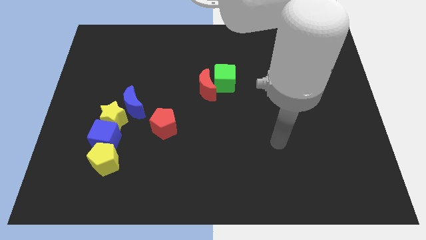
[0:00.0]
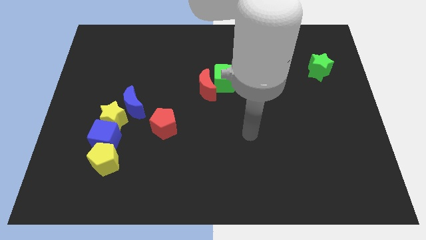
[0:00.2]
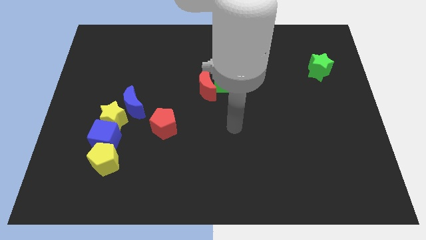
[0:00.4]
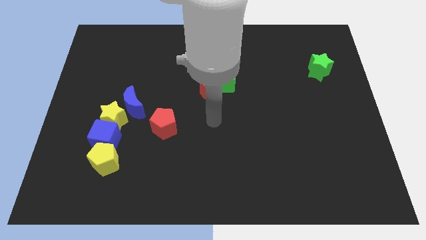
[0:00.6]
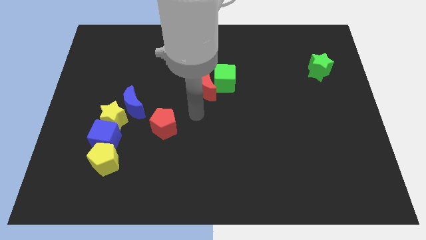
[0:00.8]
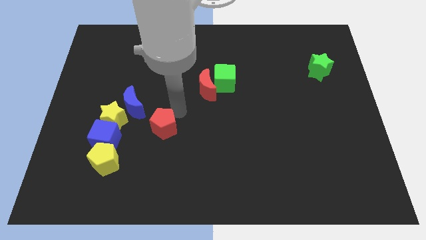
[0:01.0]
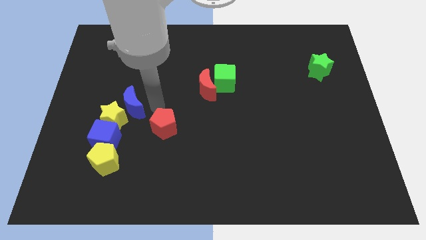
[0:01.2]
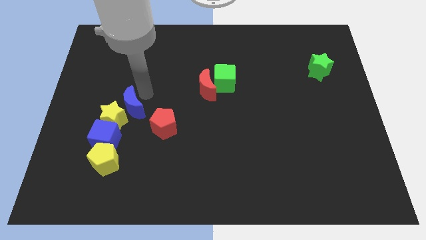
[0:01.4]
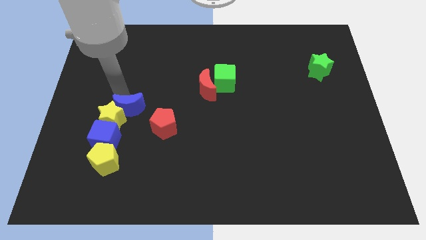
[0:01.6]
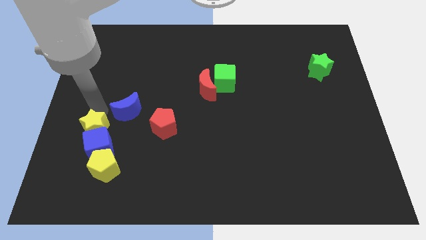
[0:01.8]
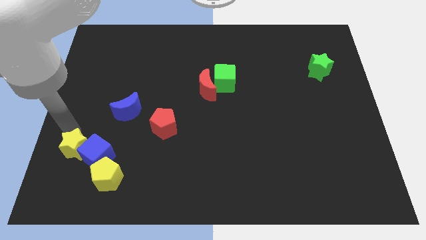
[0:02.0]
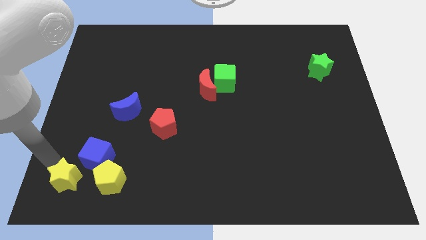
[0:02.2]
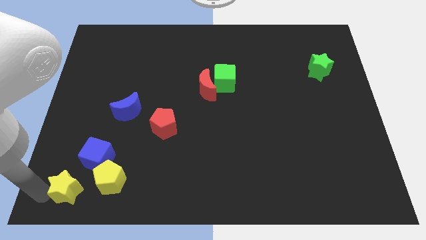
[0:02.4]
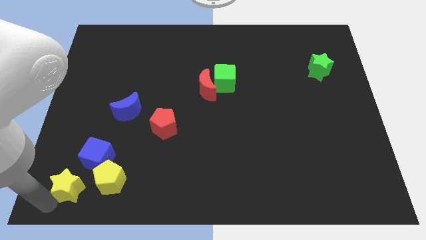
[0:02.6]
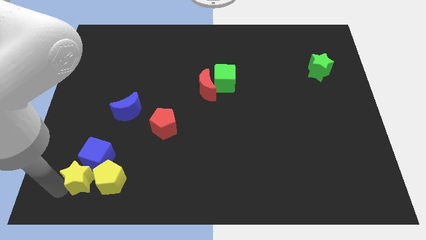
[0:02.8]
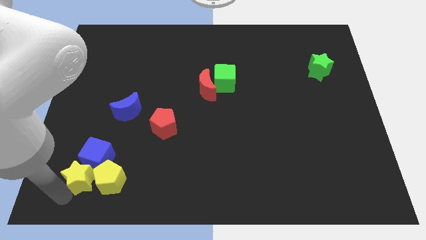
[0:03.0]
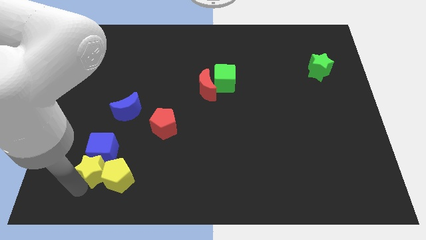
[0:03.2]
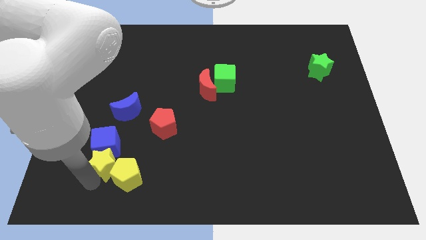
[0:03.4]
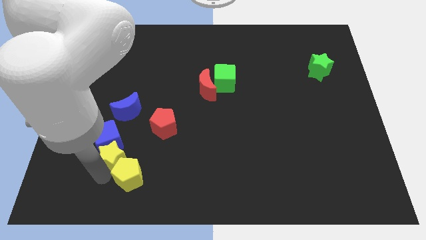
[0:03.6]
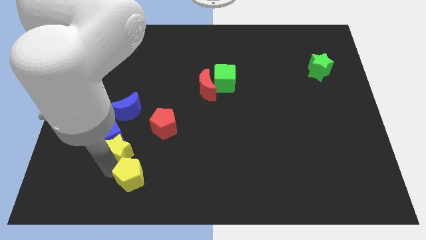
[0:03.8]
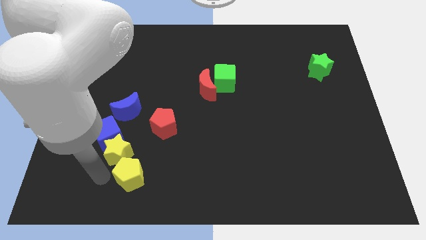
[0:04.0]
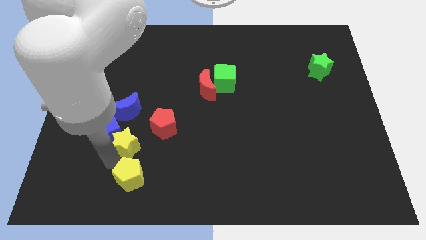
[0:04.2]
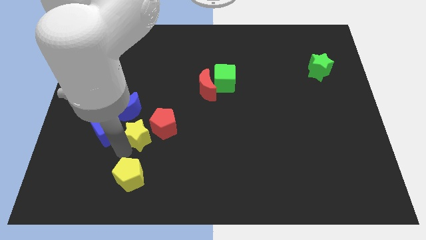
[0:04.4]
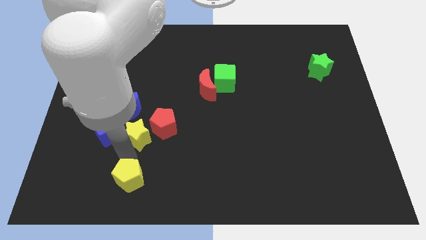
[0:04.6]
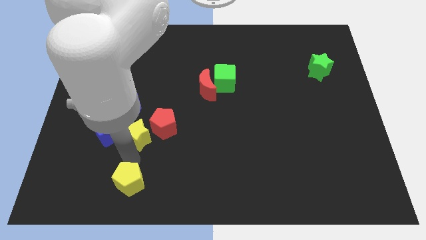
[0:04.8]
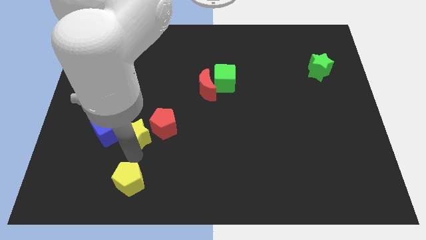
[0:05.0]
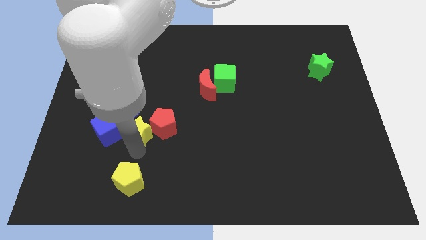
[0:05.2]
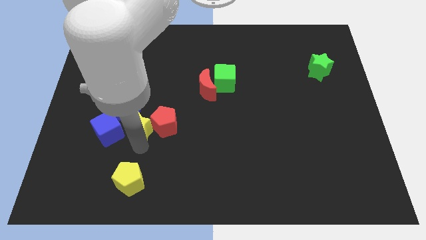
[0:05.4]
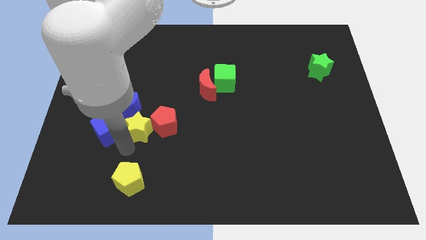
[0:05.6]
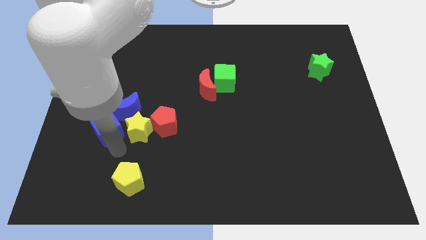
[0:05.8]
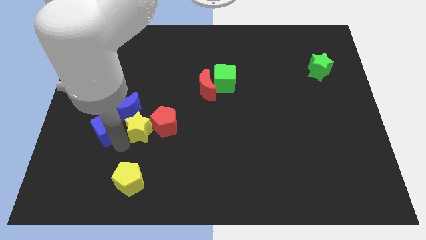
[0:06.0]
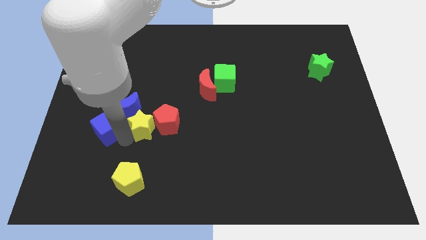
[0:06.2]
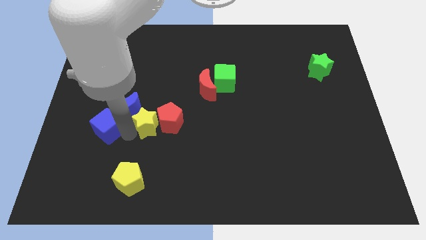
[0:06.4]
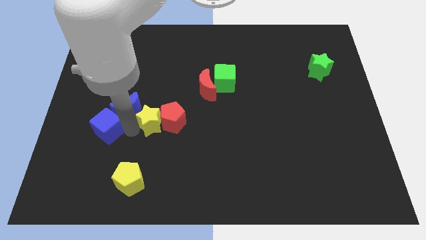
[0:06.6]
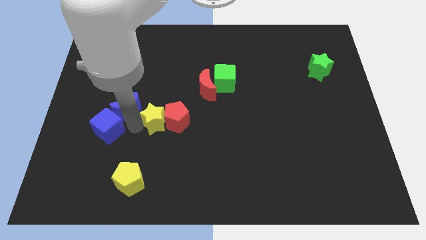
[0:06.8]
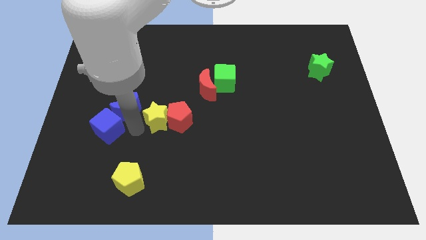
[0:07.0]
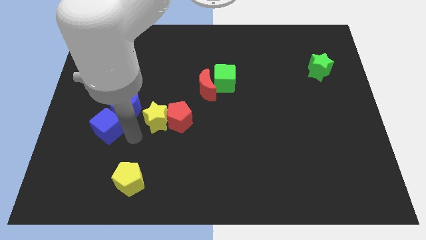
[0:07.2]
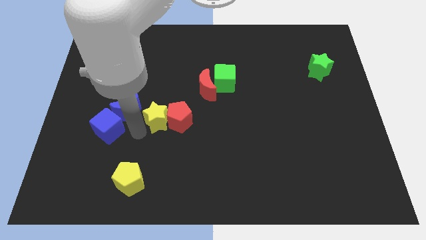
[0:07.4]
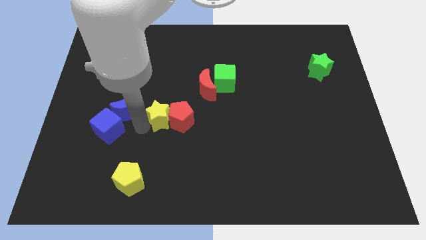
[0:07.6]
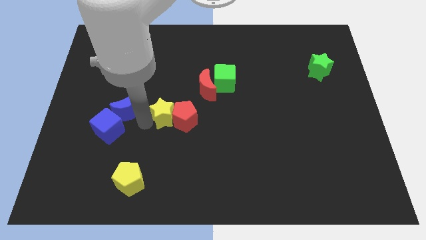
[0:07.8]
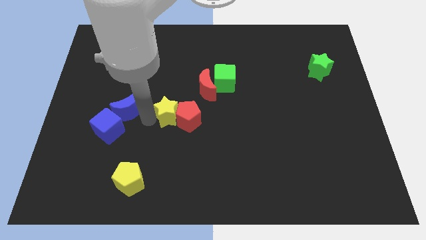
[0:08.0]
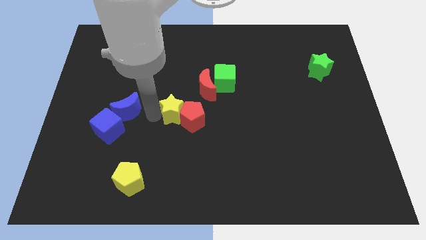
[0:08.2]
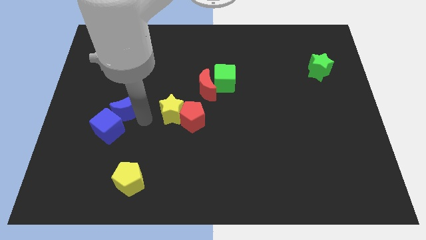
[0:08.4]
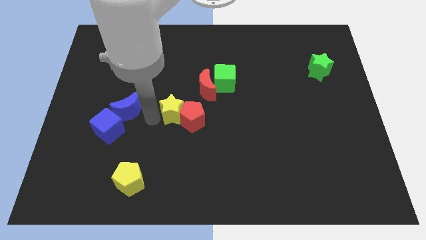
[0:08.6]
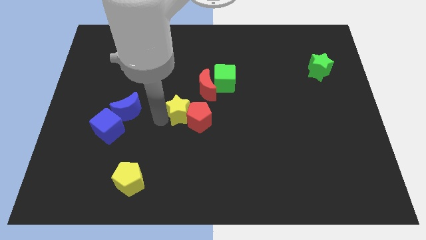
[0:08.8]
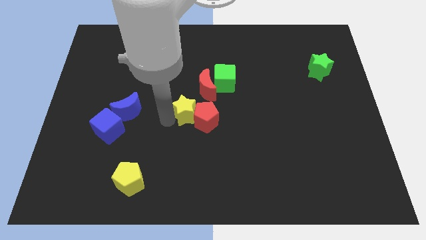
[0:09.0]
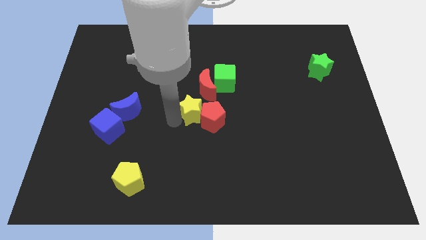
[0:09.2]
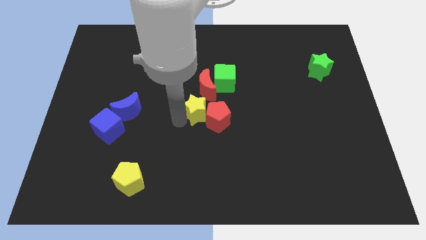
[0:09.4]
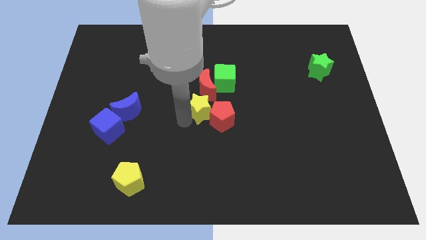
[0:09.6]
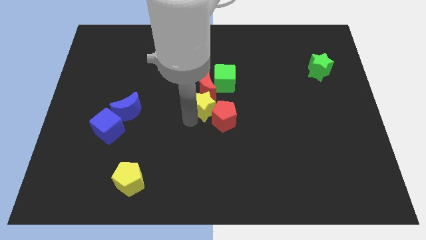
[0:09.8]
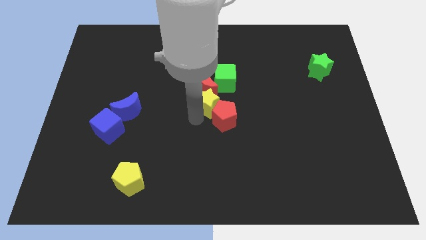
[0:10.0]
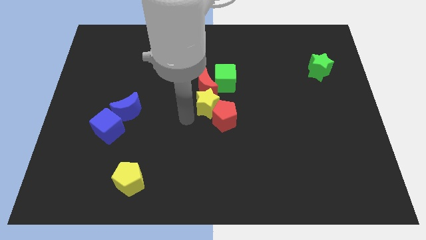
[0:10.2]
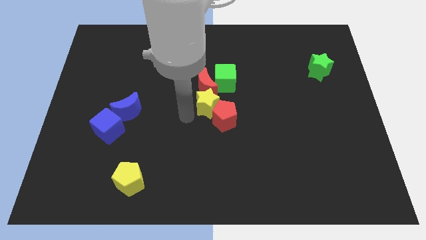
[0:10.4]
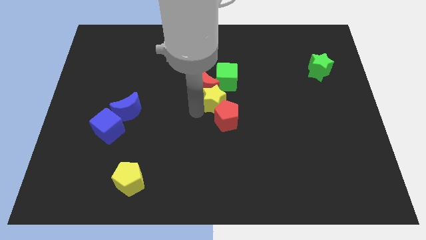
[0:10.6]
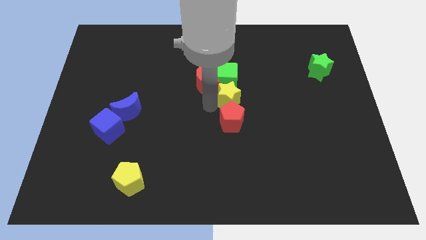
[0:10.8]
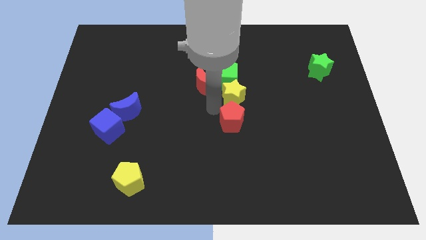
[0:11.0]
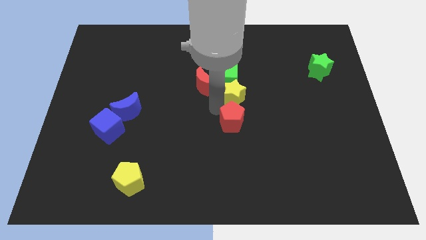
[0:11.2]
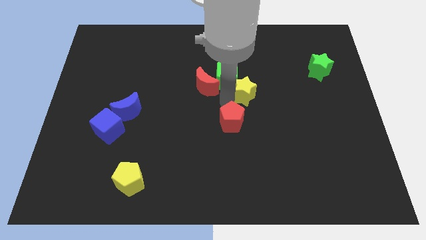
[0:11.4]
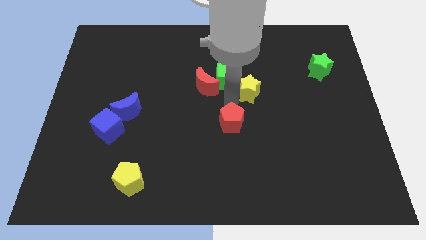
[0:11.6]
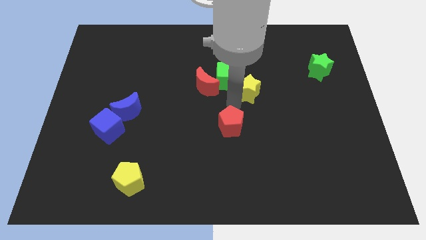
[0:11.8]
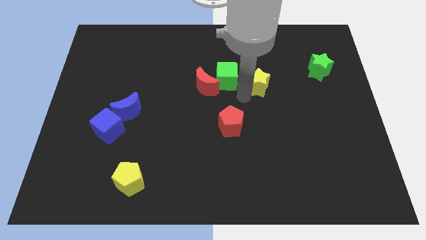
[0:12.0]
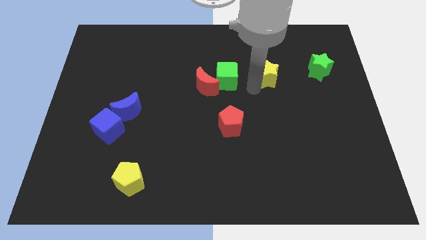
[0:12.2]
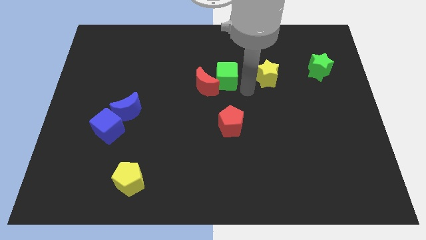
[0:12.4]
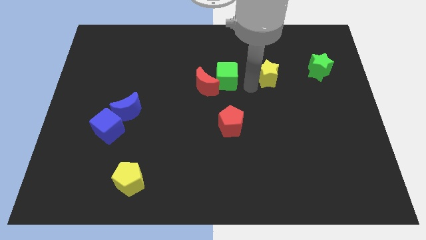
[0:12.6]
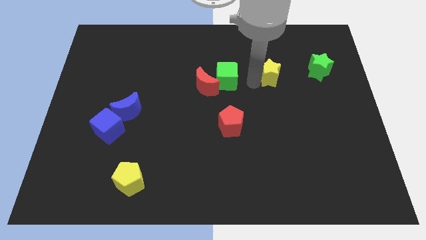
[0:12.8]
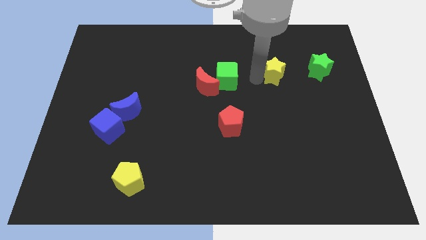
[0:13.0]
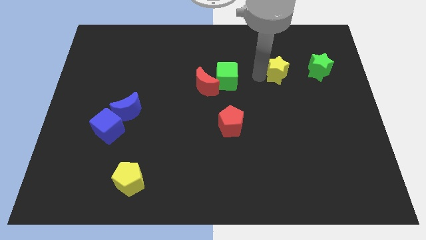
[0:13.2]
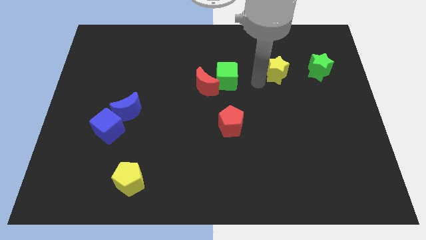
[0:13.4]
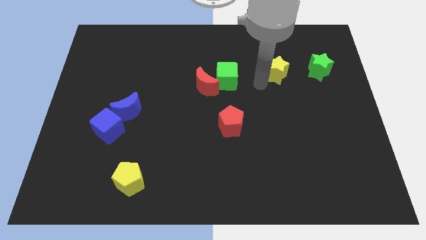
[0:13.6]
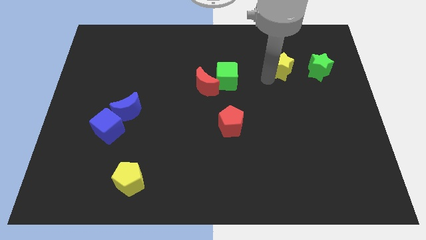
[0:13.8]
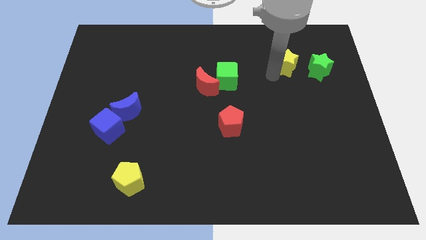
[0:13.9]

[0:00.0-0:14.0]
push the yellow star to the top left of the green star

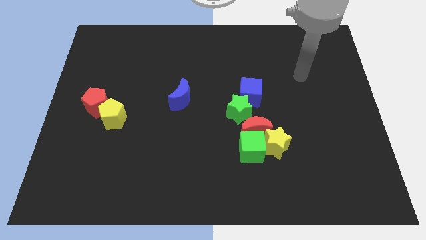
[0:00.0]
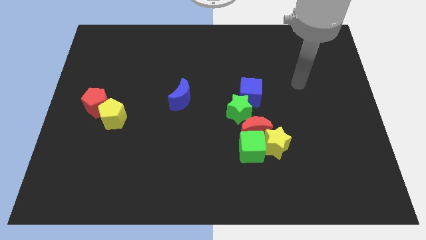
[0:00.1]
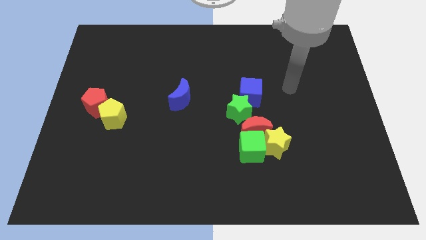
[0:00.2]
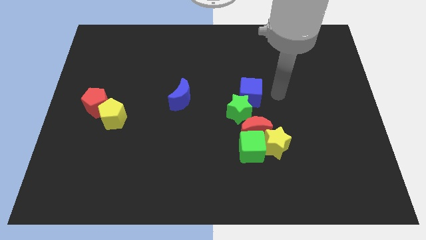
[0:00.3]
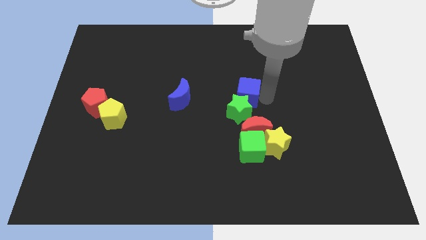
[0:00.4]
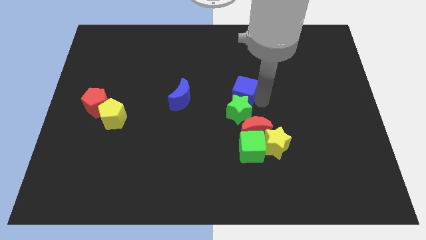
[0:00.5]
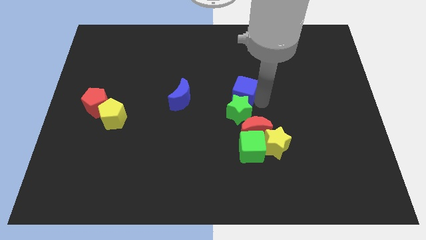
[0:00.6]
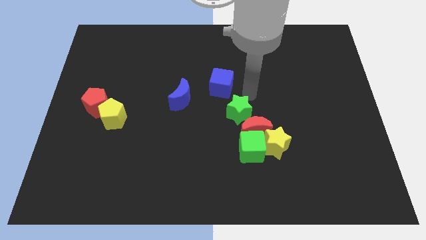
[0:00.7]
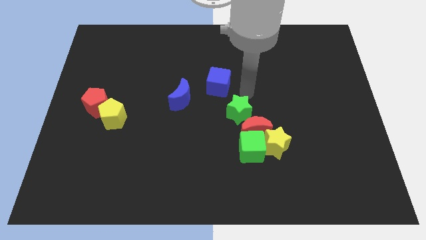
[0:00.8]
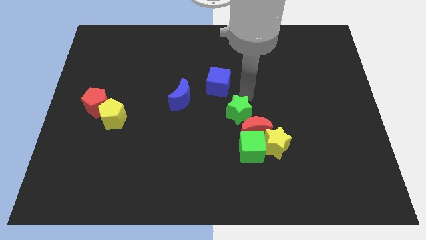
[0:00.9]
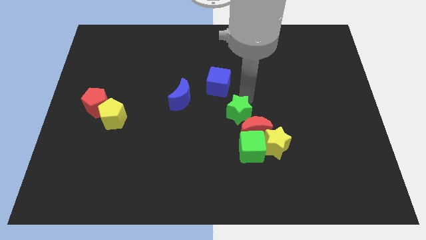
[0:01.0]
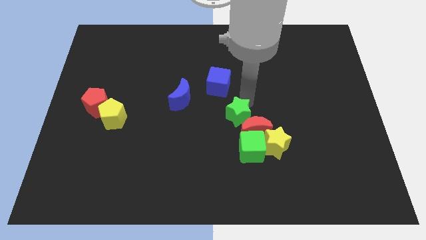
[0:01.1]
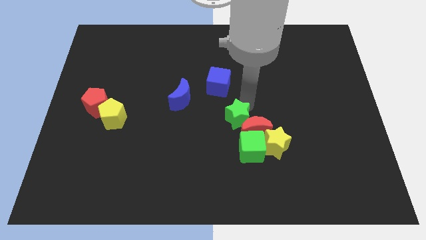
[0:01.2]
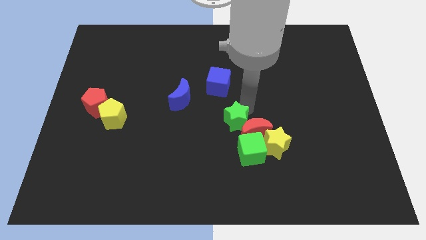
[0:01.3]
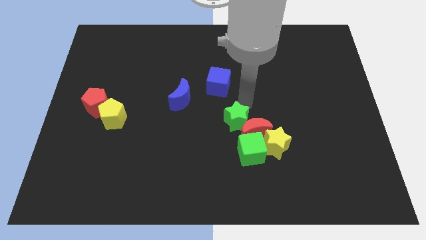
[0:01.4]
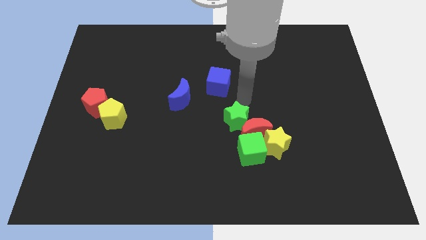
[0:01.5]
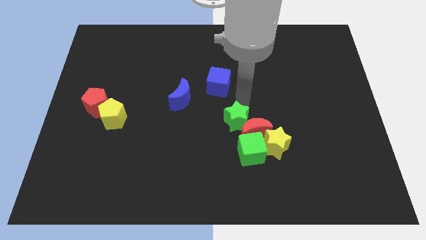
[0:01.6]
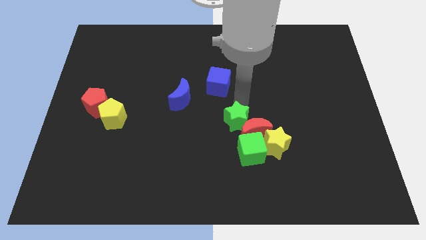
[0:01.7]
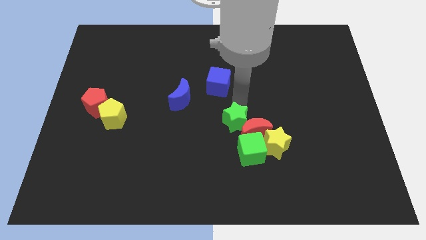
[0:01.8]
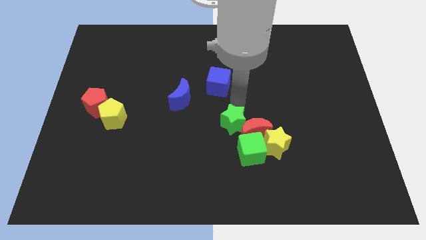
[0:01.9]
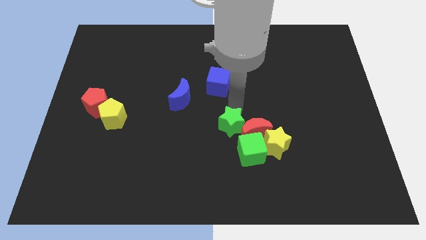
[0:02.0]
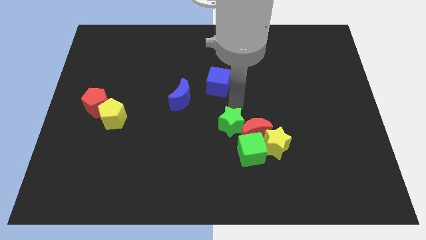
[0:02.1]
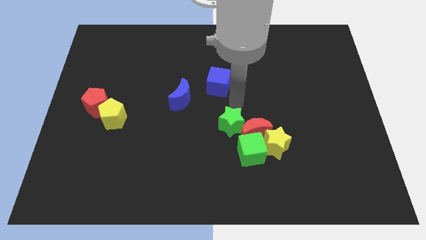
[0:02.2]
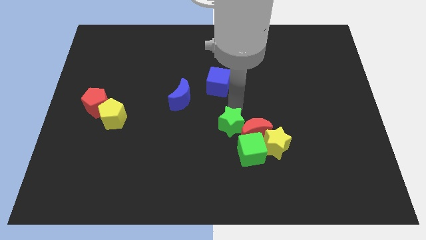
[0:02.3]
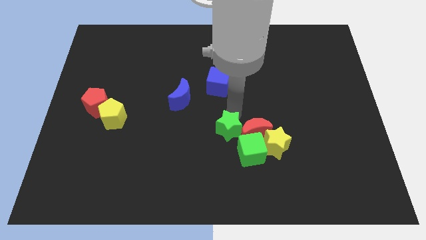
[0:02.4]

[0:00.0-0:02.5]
push the green star left of the yellow star
